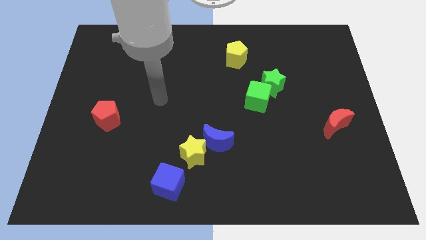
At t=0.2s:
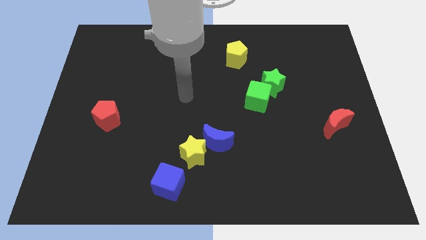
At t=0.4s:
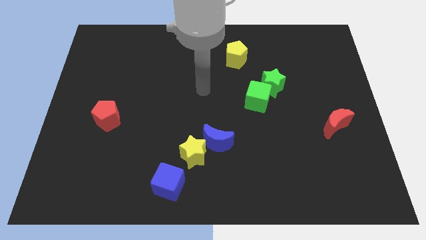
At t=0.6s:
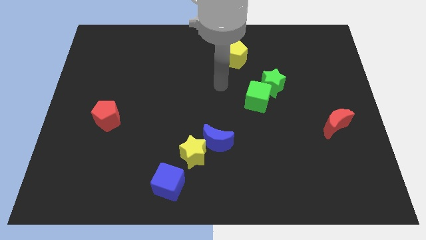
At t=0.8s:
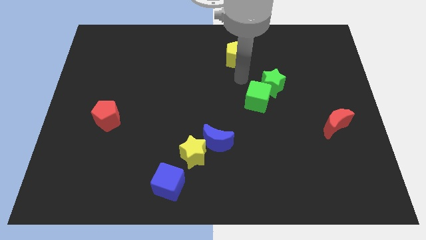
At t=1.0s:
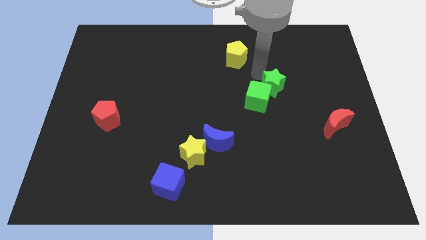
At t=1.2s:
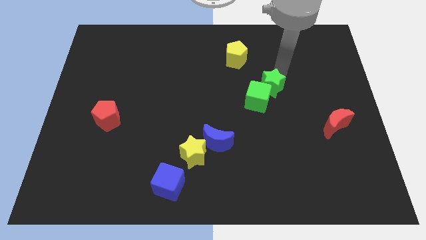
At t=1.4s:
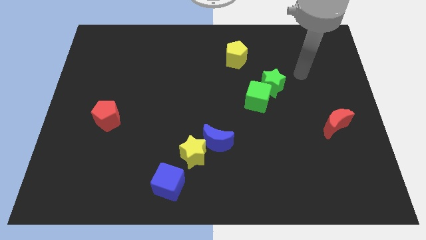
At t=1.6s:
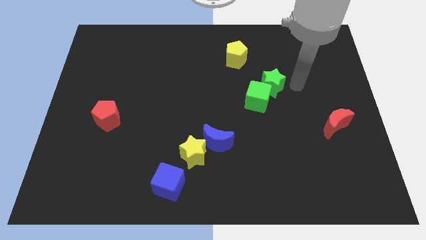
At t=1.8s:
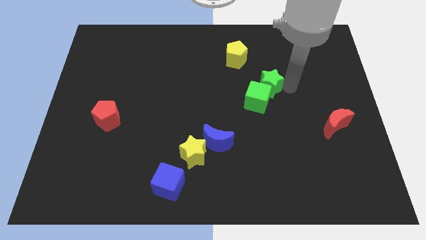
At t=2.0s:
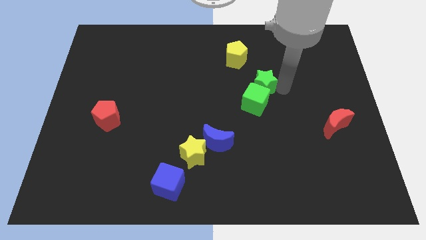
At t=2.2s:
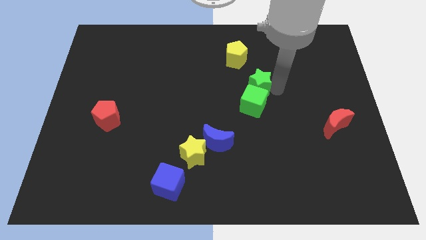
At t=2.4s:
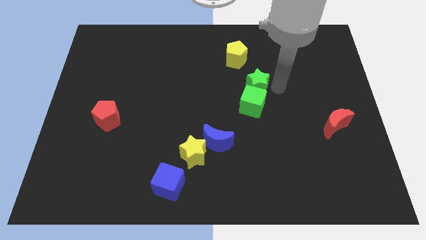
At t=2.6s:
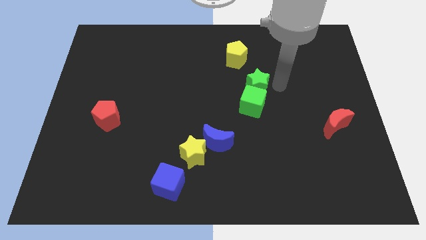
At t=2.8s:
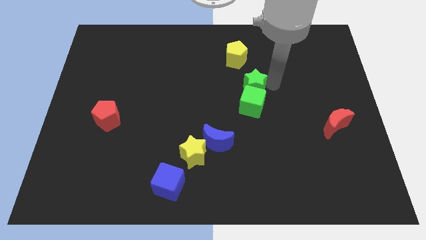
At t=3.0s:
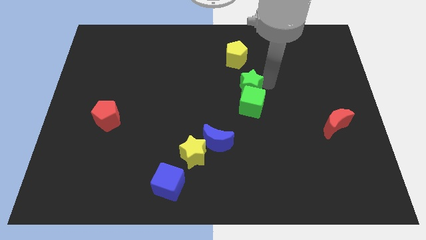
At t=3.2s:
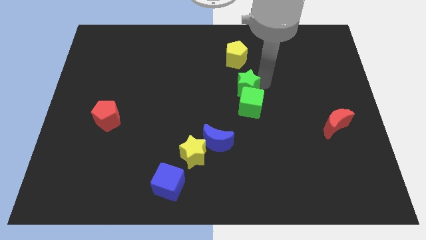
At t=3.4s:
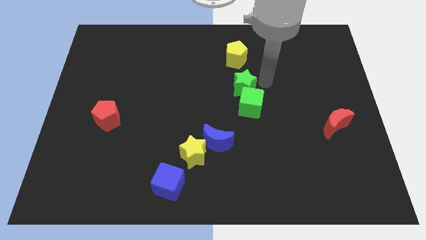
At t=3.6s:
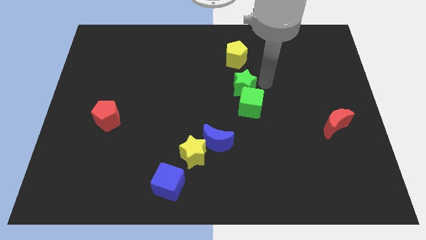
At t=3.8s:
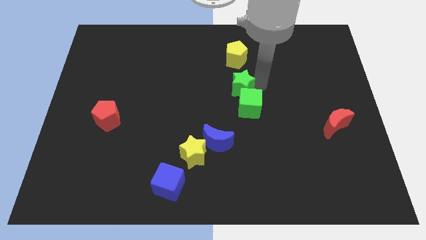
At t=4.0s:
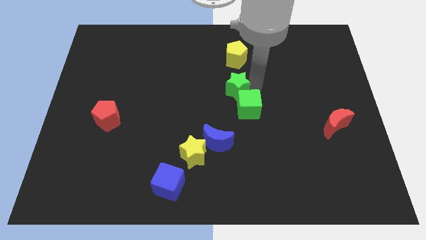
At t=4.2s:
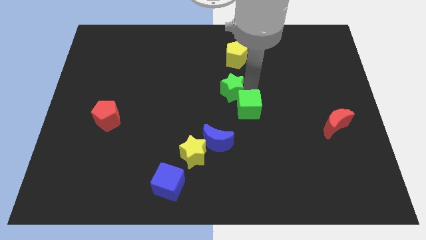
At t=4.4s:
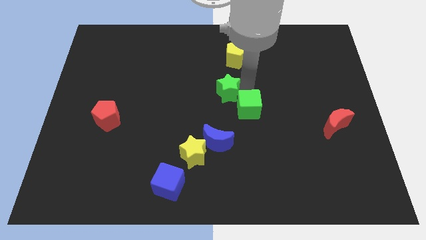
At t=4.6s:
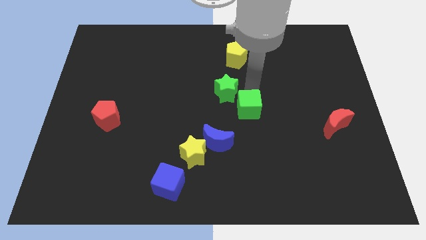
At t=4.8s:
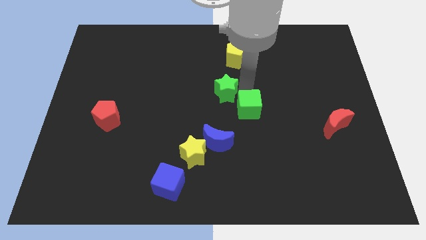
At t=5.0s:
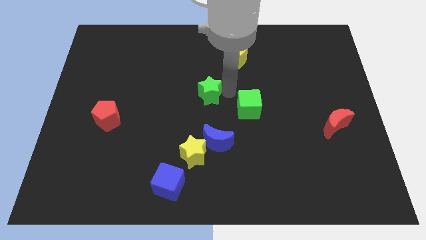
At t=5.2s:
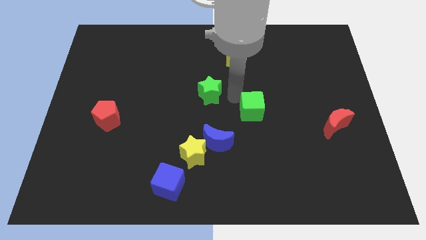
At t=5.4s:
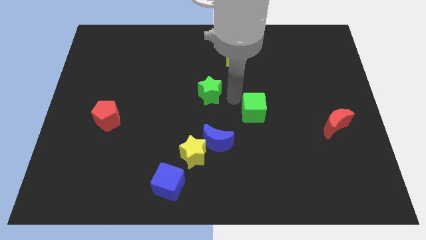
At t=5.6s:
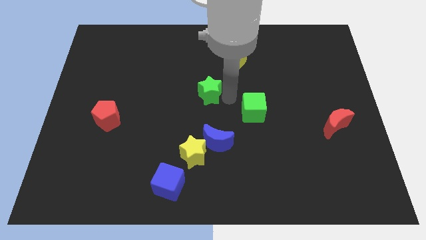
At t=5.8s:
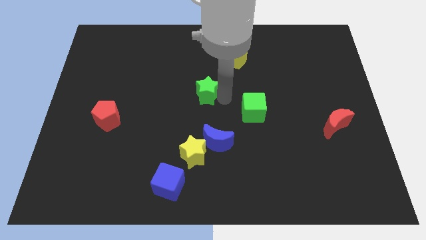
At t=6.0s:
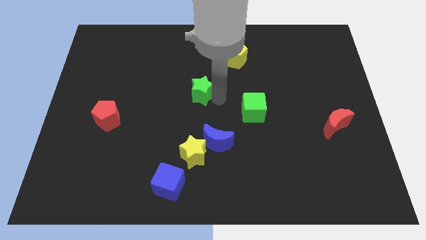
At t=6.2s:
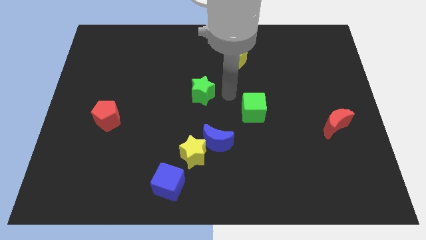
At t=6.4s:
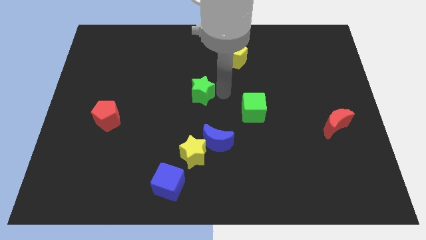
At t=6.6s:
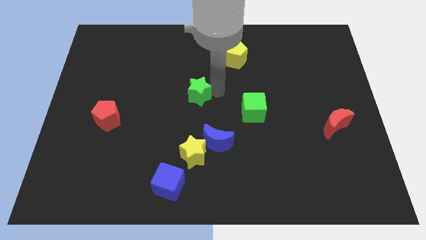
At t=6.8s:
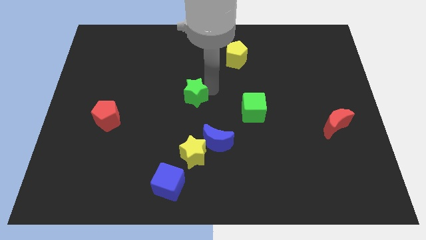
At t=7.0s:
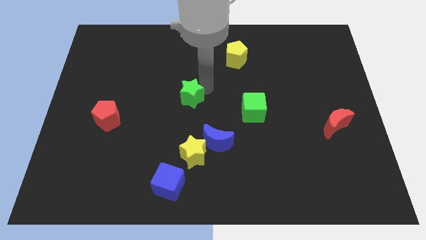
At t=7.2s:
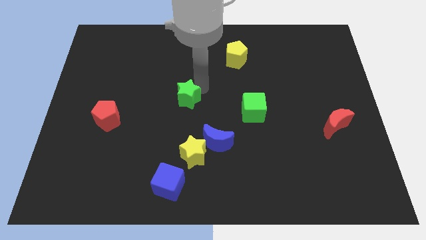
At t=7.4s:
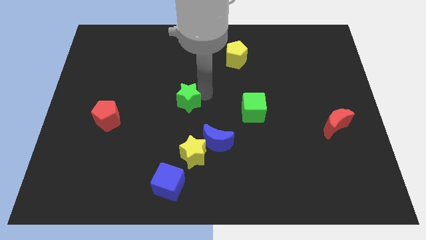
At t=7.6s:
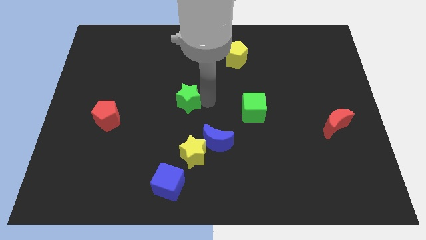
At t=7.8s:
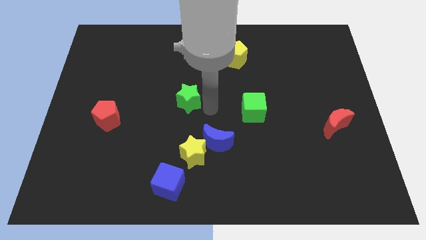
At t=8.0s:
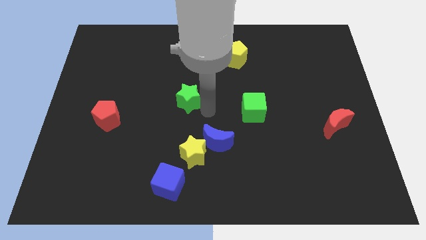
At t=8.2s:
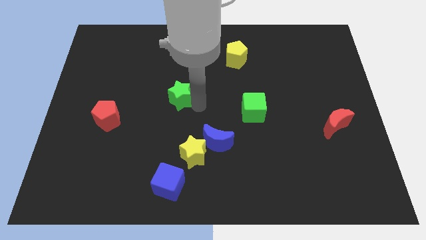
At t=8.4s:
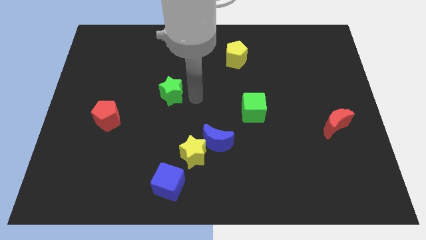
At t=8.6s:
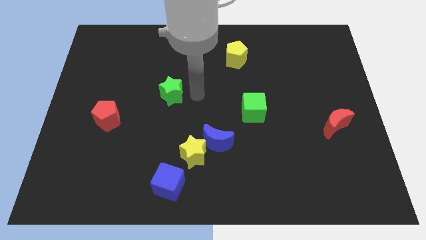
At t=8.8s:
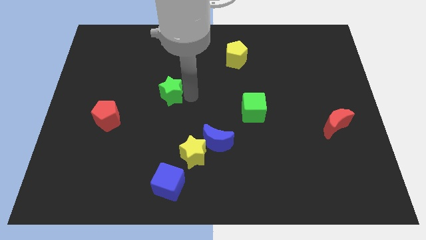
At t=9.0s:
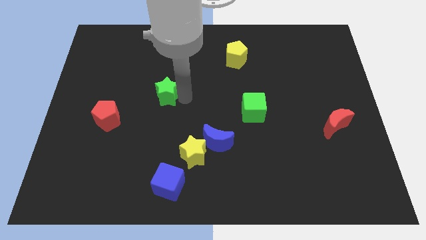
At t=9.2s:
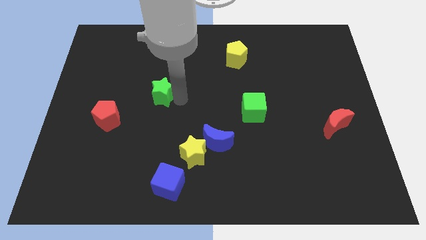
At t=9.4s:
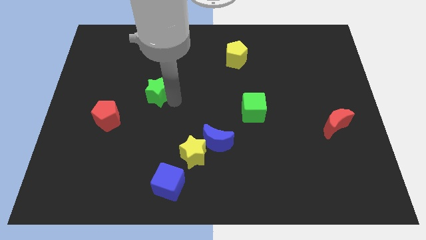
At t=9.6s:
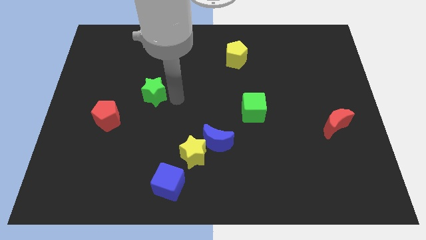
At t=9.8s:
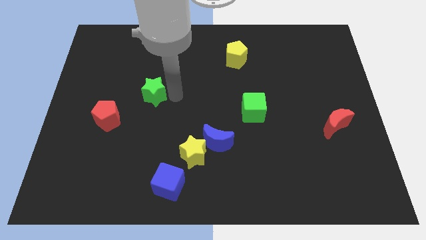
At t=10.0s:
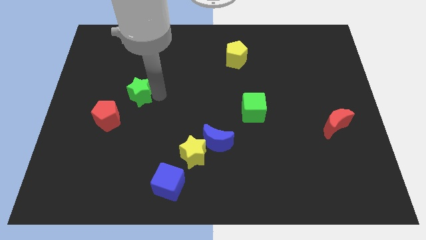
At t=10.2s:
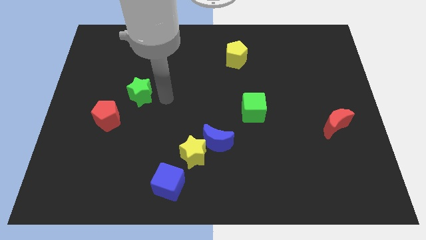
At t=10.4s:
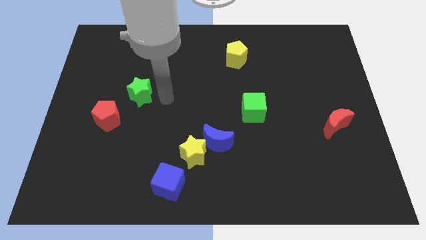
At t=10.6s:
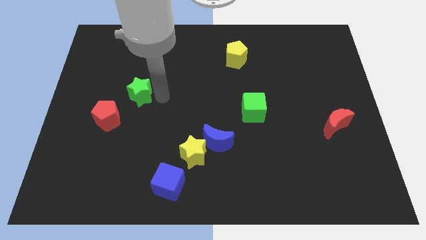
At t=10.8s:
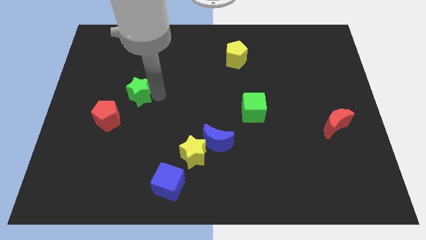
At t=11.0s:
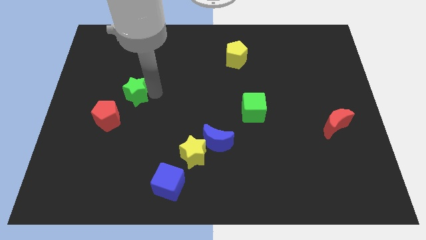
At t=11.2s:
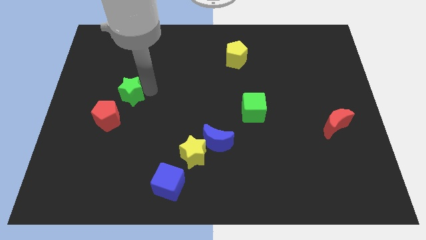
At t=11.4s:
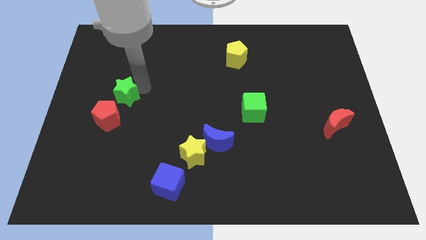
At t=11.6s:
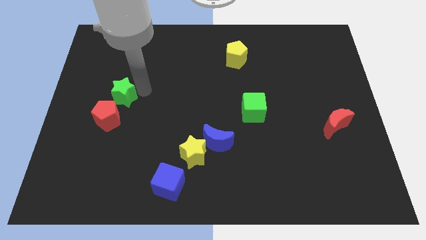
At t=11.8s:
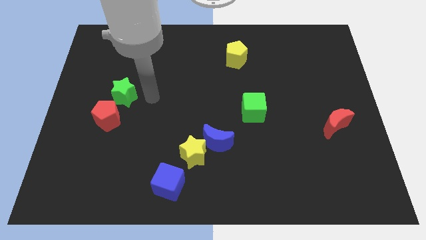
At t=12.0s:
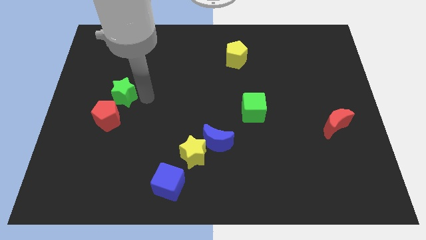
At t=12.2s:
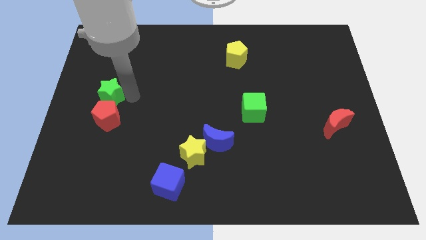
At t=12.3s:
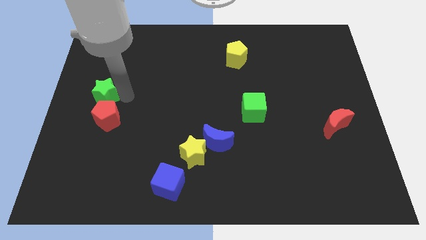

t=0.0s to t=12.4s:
put the green star to the center left
